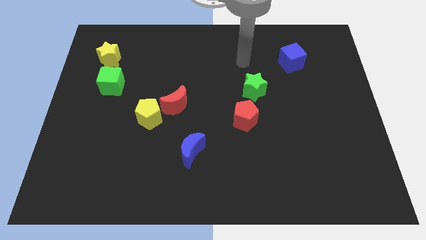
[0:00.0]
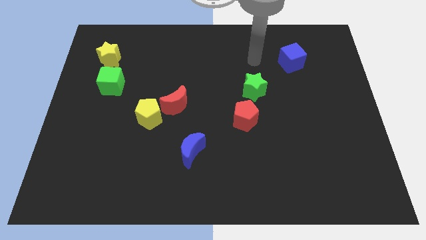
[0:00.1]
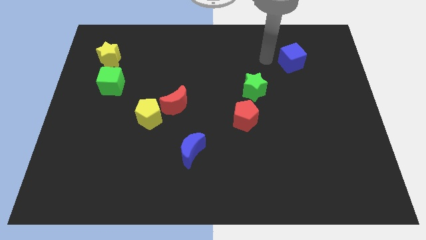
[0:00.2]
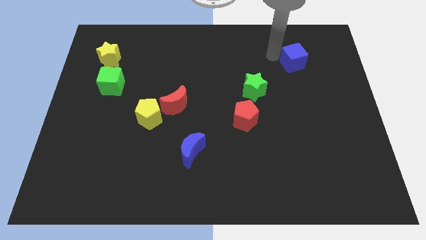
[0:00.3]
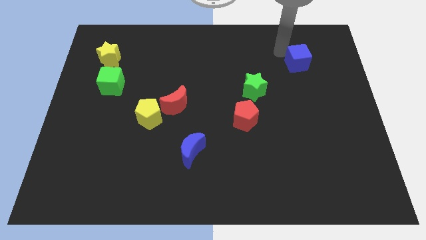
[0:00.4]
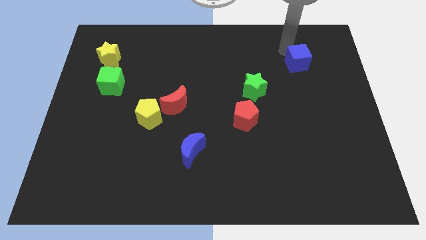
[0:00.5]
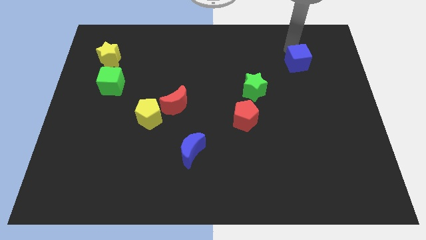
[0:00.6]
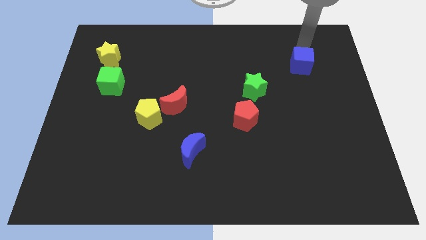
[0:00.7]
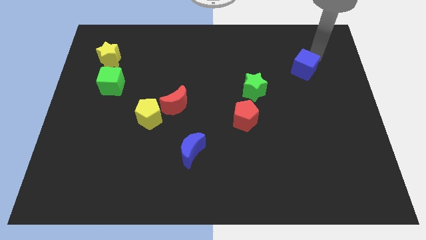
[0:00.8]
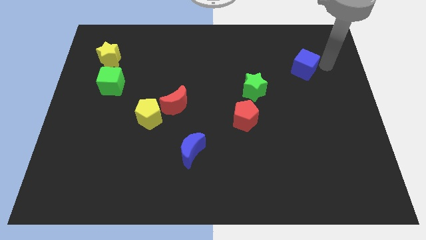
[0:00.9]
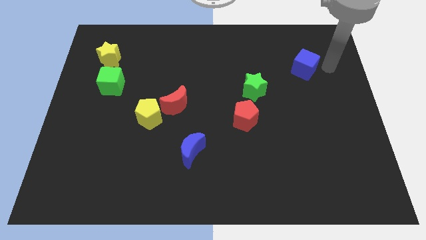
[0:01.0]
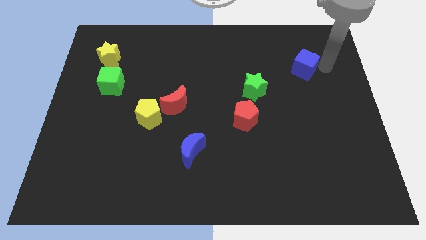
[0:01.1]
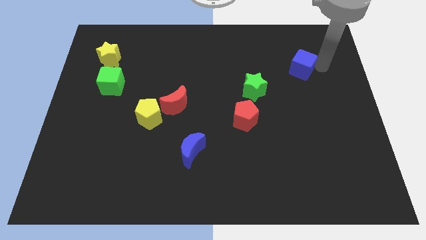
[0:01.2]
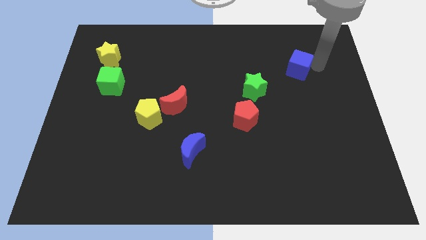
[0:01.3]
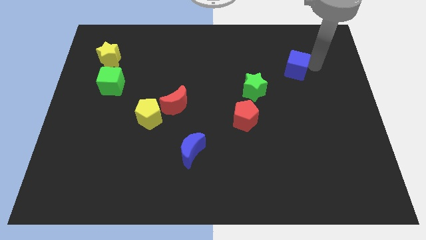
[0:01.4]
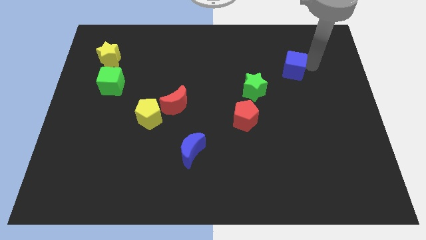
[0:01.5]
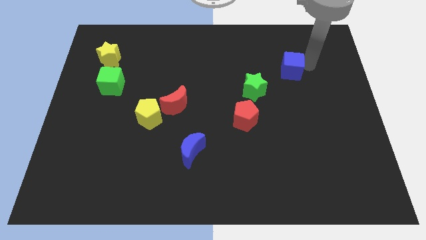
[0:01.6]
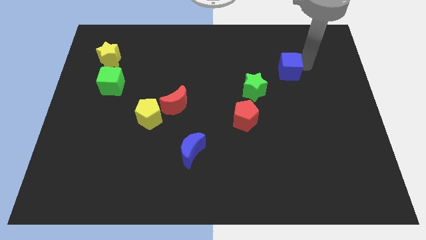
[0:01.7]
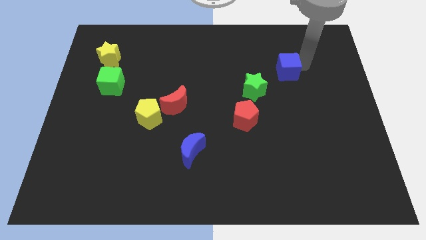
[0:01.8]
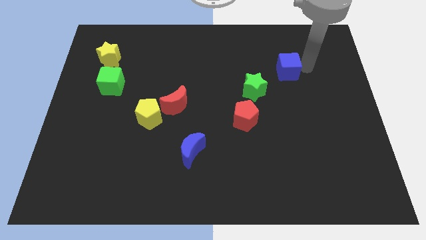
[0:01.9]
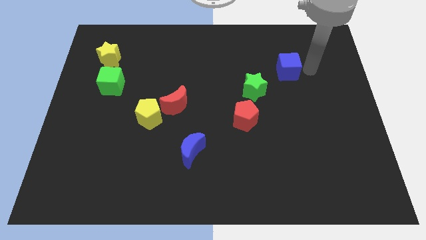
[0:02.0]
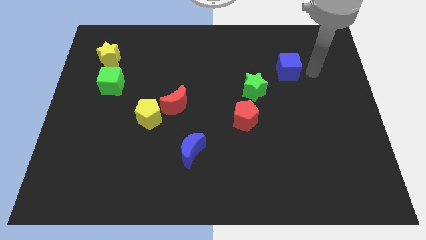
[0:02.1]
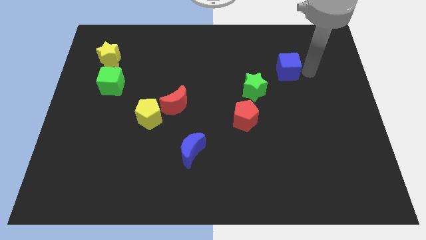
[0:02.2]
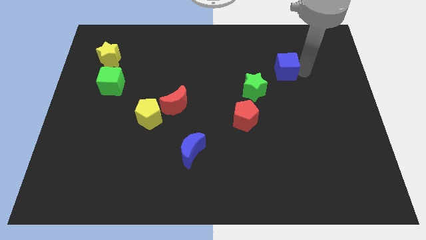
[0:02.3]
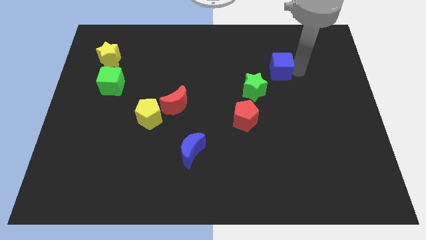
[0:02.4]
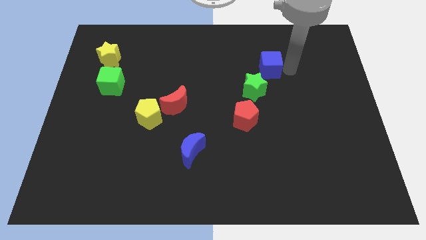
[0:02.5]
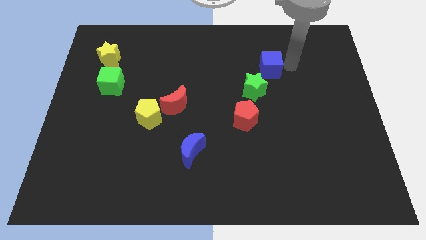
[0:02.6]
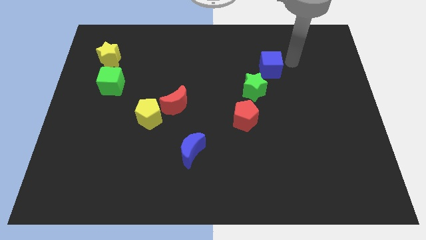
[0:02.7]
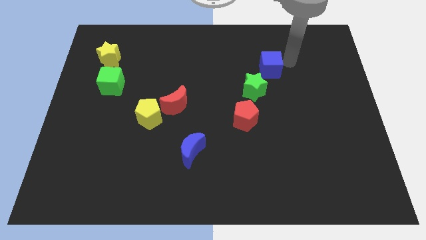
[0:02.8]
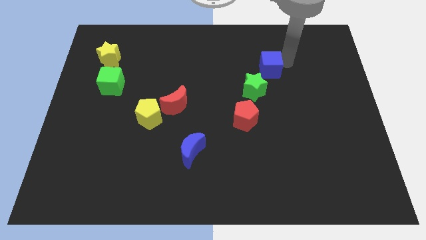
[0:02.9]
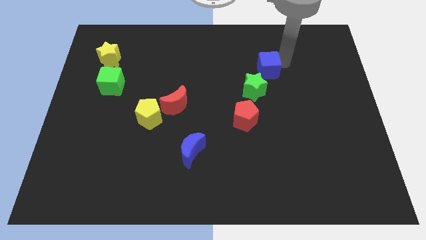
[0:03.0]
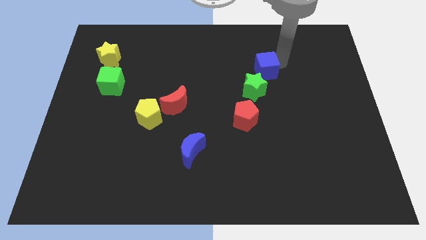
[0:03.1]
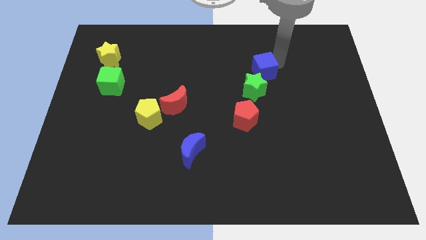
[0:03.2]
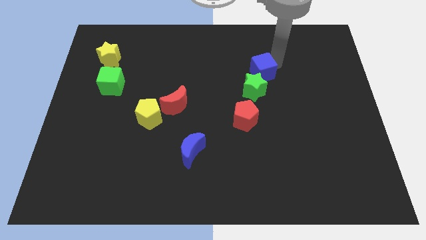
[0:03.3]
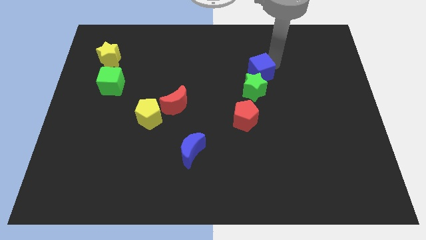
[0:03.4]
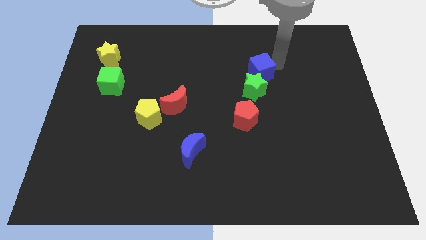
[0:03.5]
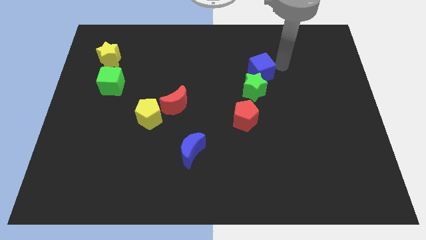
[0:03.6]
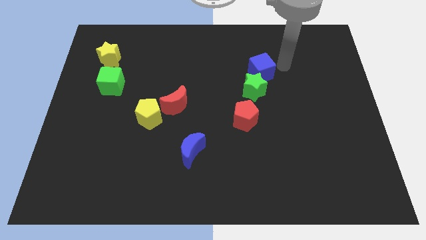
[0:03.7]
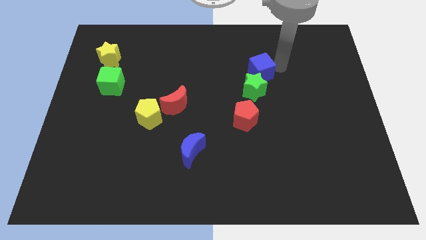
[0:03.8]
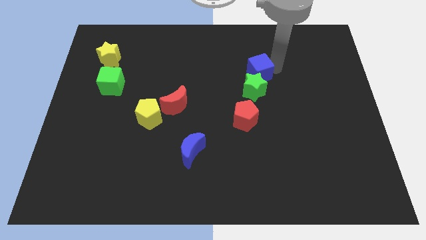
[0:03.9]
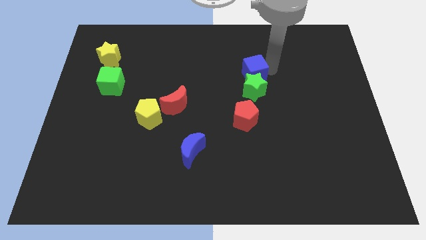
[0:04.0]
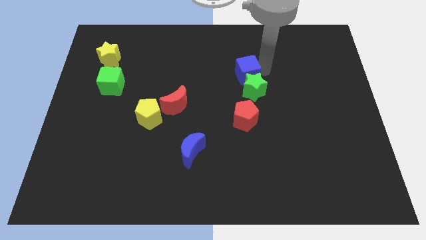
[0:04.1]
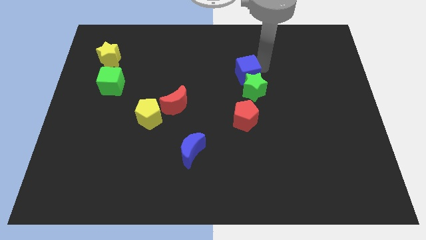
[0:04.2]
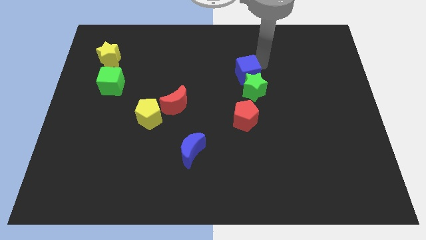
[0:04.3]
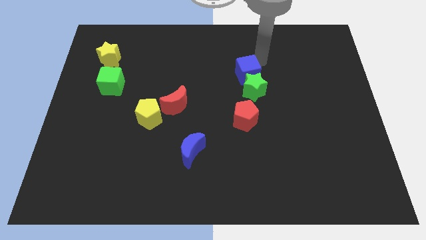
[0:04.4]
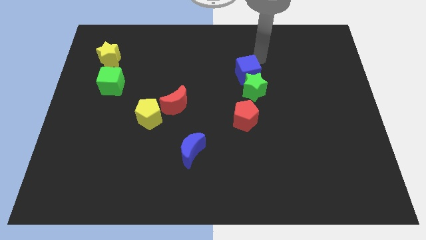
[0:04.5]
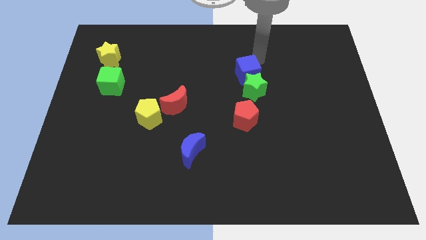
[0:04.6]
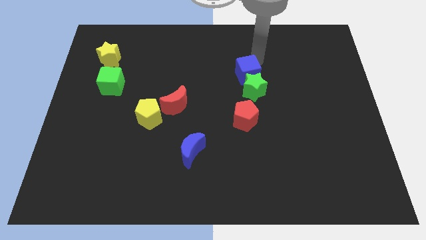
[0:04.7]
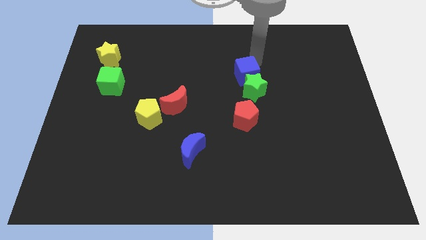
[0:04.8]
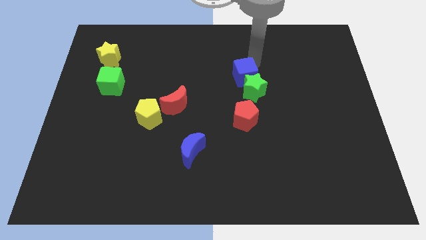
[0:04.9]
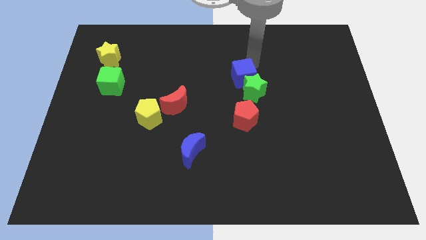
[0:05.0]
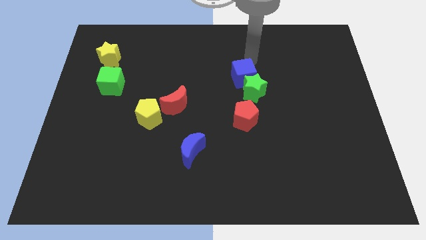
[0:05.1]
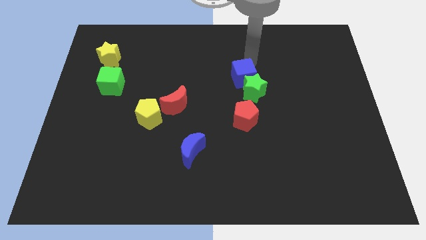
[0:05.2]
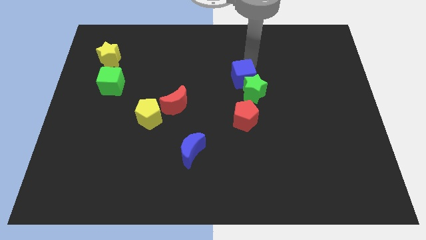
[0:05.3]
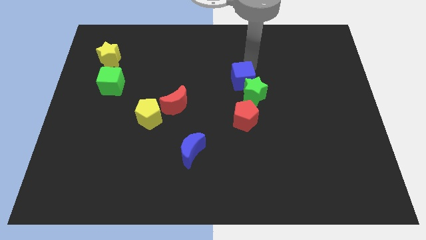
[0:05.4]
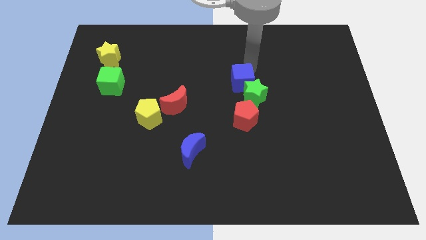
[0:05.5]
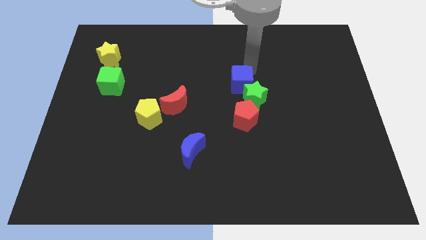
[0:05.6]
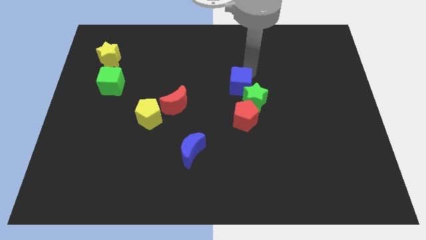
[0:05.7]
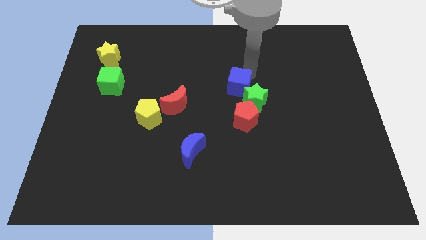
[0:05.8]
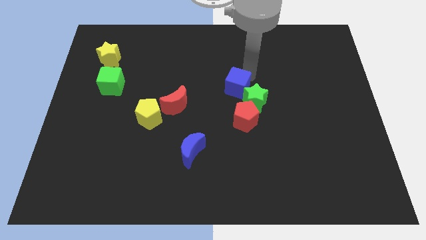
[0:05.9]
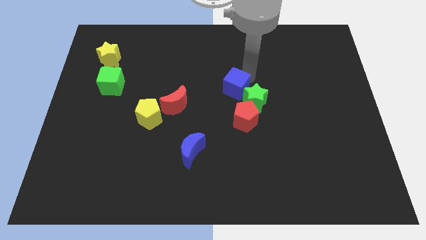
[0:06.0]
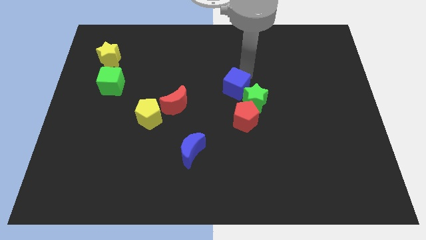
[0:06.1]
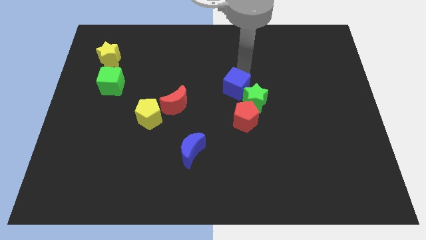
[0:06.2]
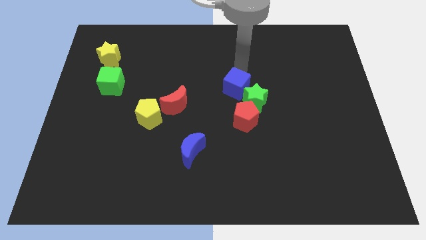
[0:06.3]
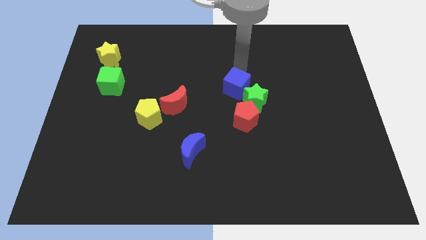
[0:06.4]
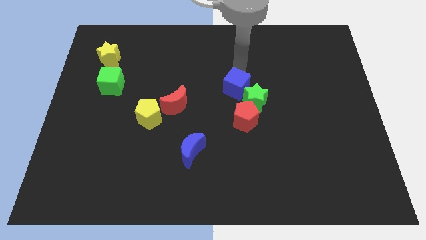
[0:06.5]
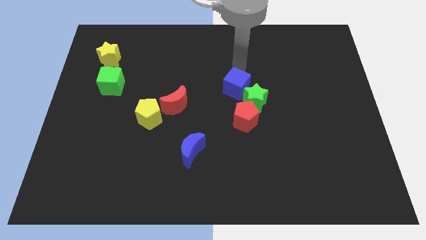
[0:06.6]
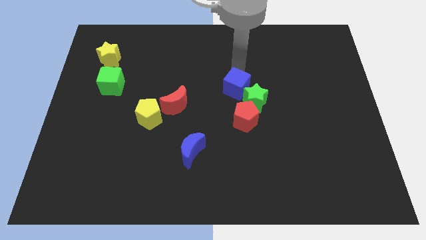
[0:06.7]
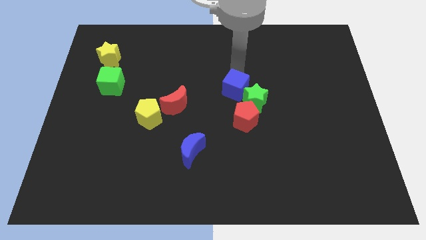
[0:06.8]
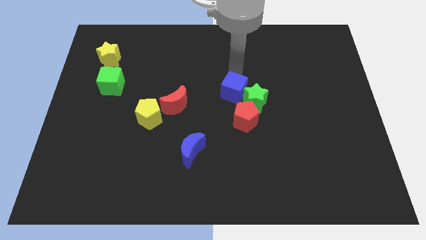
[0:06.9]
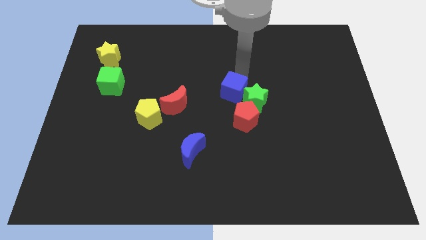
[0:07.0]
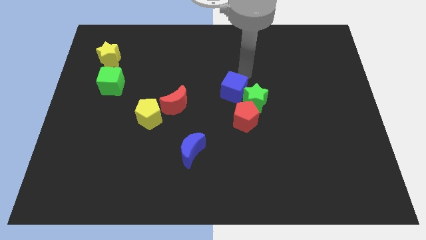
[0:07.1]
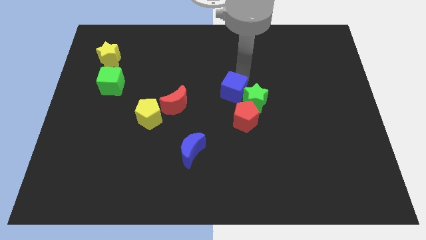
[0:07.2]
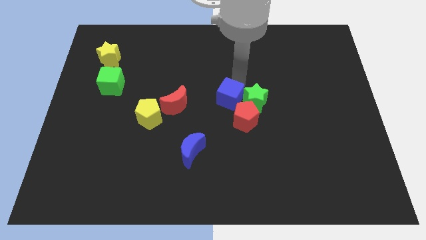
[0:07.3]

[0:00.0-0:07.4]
slide the blue cube downwards and then to the left

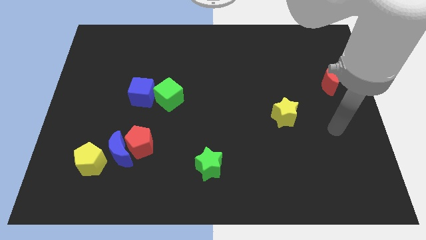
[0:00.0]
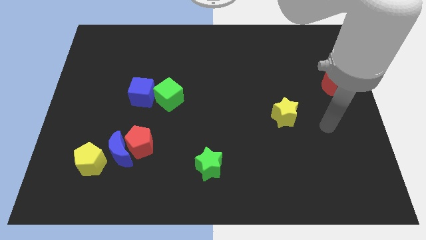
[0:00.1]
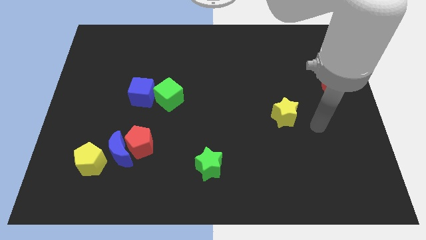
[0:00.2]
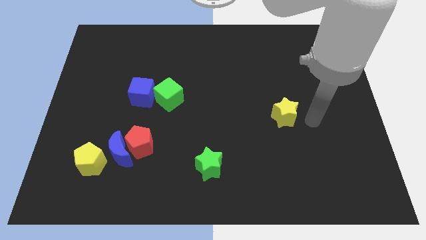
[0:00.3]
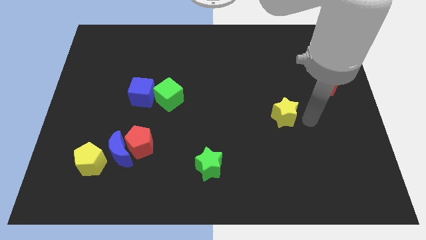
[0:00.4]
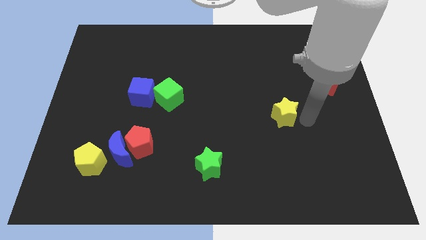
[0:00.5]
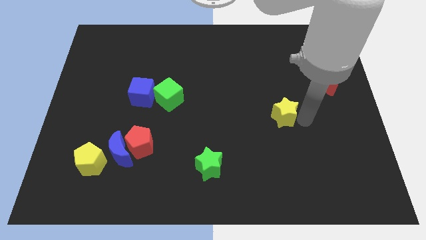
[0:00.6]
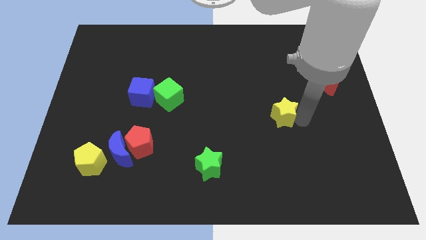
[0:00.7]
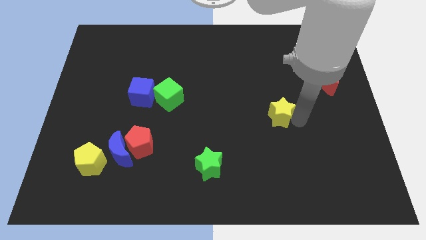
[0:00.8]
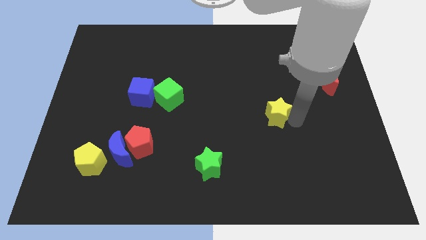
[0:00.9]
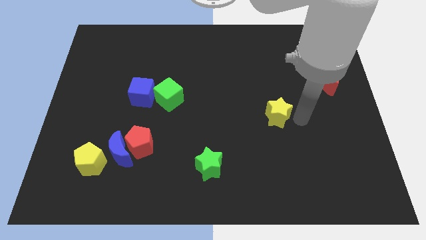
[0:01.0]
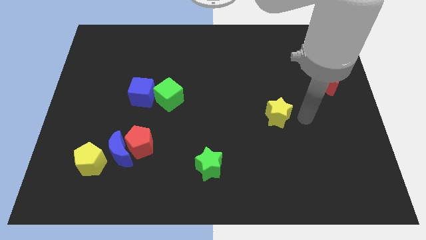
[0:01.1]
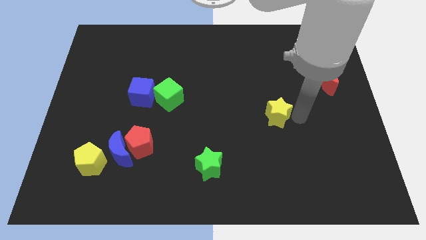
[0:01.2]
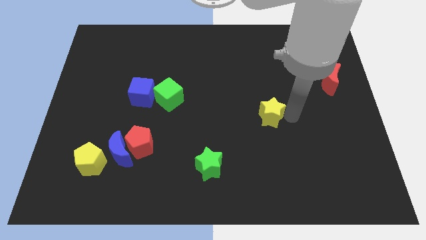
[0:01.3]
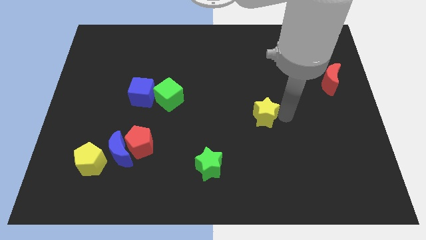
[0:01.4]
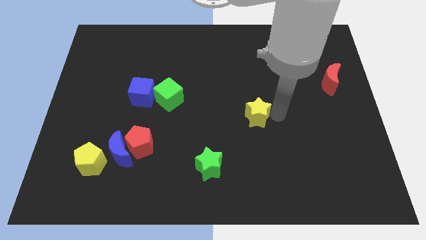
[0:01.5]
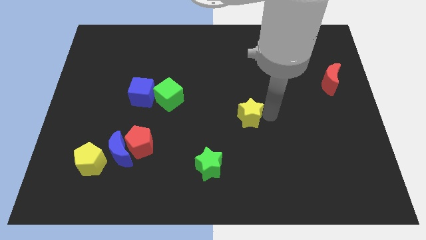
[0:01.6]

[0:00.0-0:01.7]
slightly move the yellow star left
